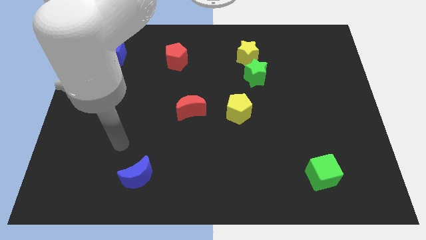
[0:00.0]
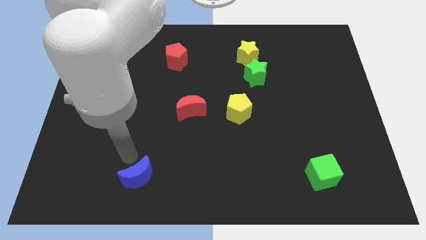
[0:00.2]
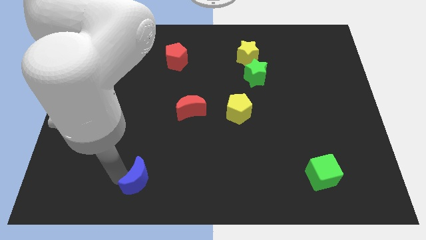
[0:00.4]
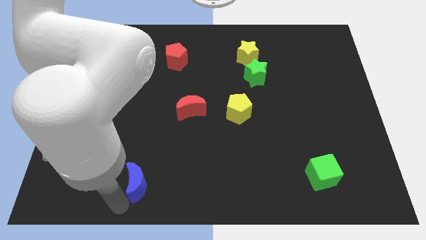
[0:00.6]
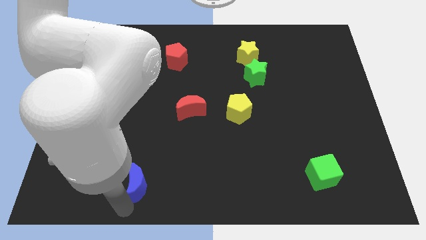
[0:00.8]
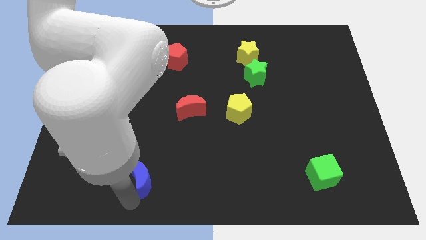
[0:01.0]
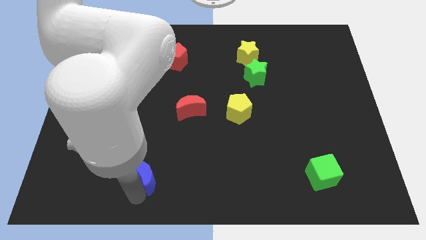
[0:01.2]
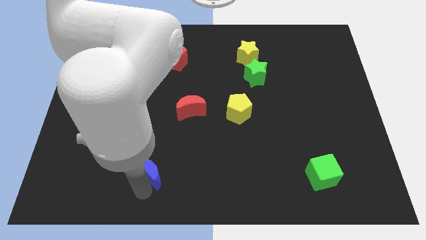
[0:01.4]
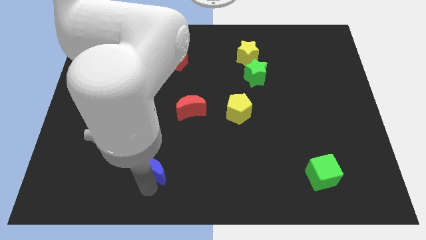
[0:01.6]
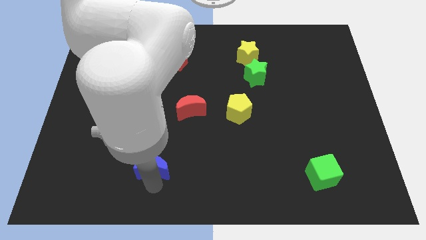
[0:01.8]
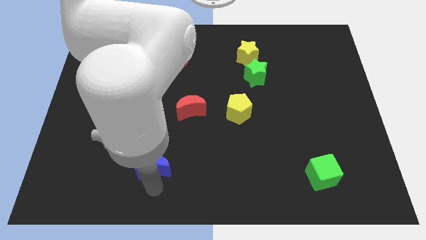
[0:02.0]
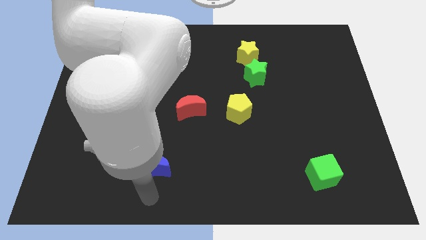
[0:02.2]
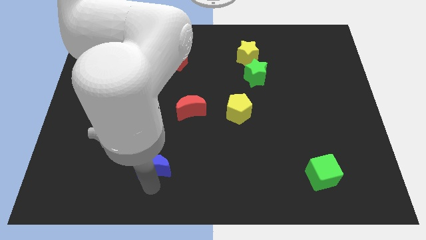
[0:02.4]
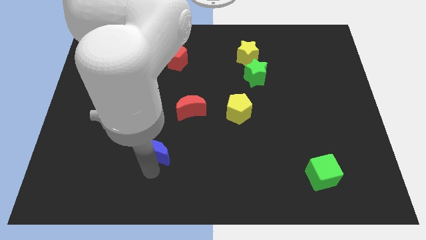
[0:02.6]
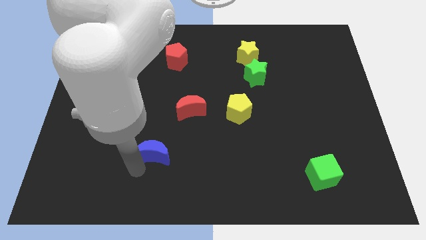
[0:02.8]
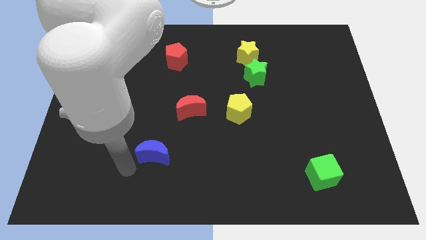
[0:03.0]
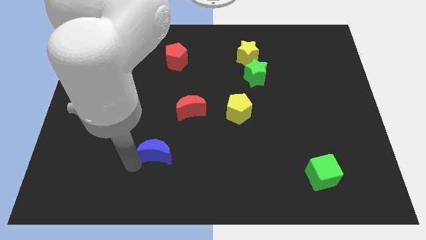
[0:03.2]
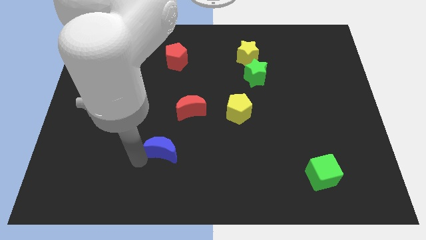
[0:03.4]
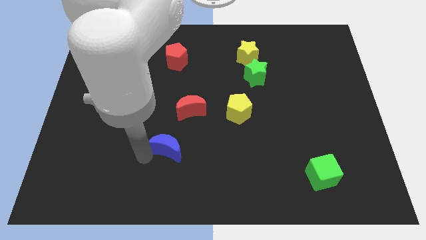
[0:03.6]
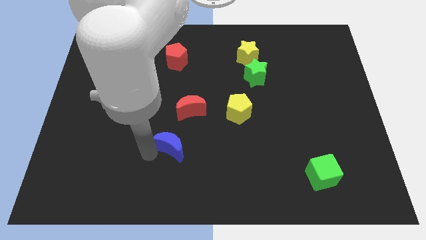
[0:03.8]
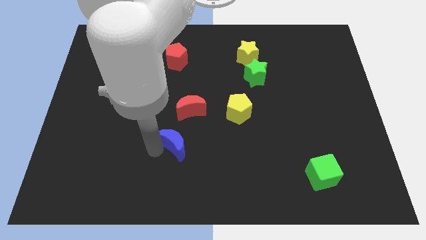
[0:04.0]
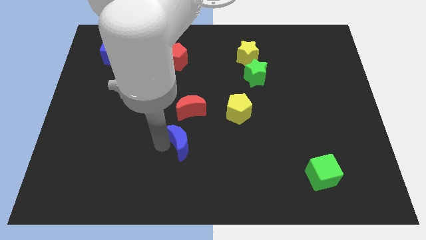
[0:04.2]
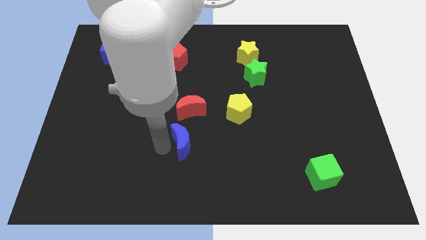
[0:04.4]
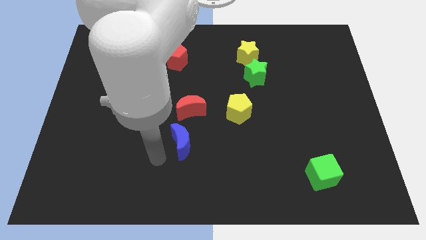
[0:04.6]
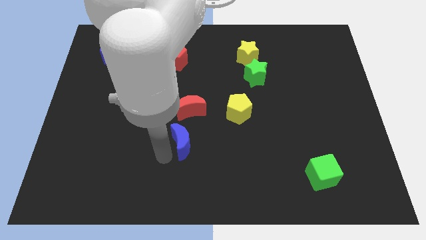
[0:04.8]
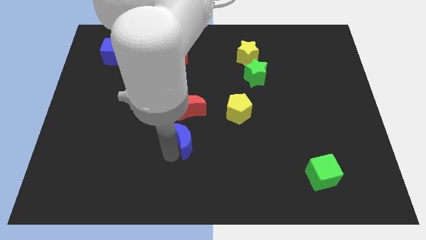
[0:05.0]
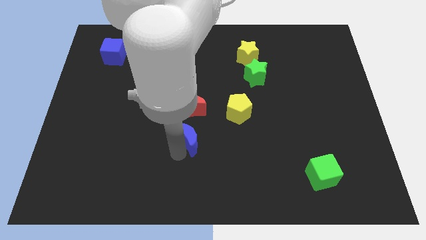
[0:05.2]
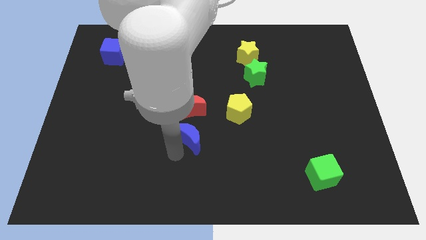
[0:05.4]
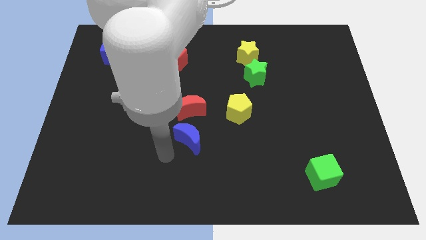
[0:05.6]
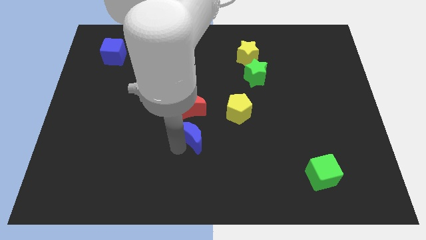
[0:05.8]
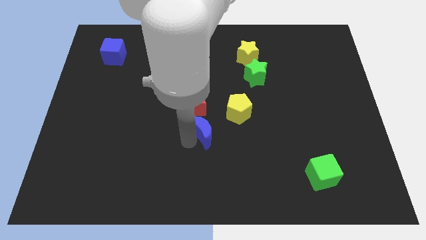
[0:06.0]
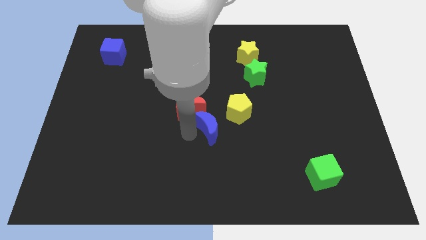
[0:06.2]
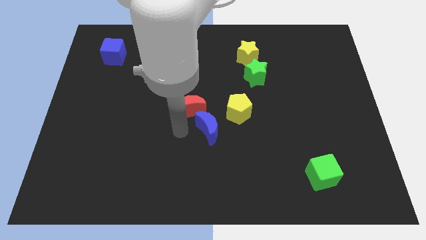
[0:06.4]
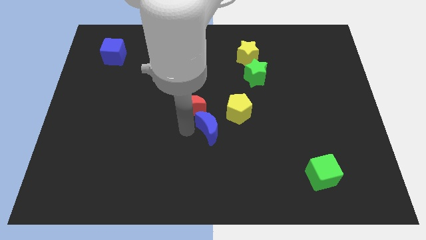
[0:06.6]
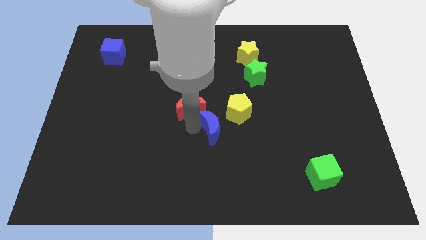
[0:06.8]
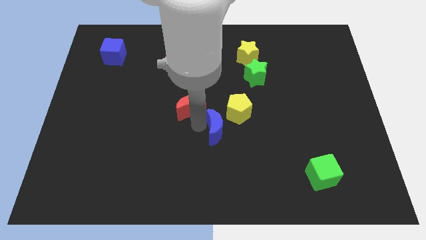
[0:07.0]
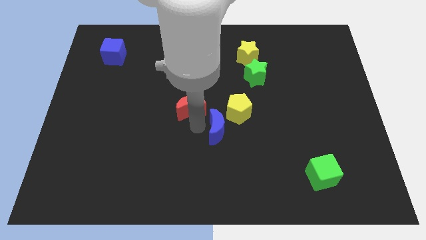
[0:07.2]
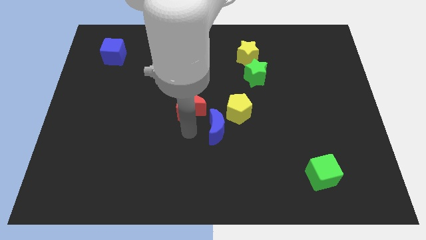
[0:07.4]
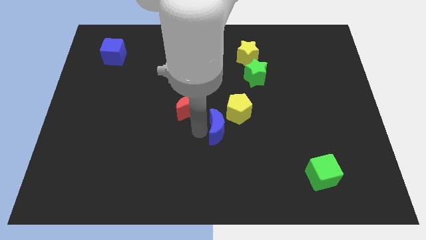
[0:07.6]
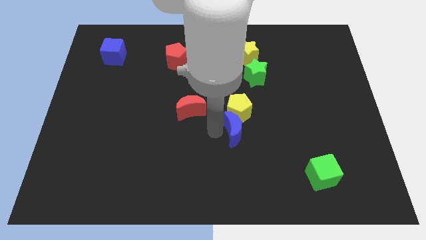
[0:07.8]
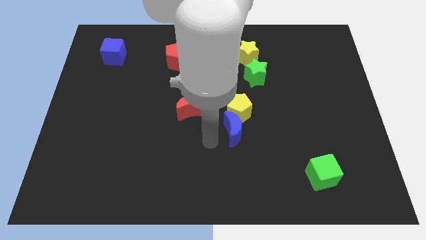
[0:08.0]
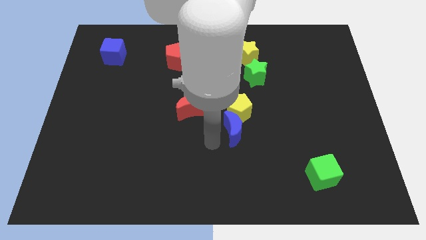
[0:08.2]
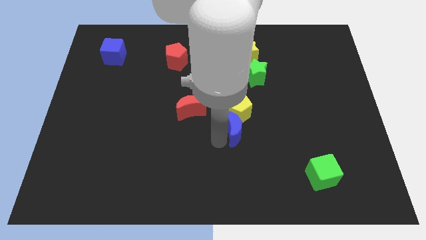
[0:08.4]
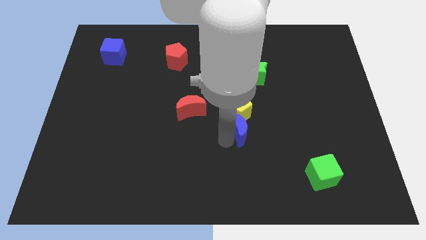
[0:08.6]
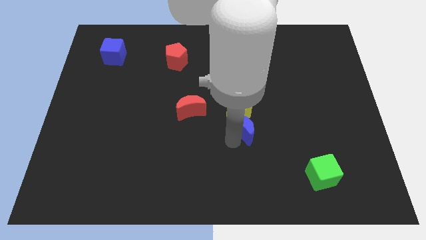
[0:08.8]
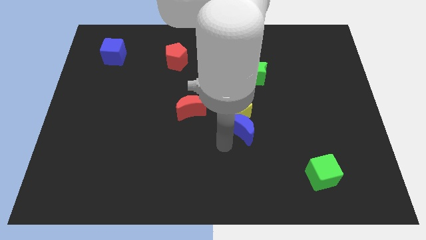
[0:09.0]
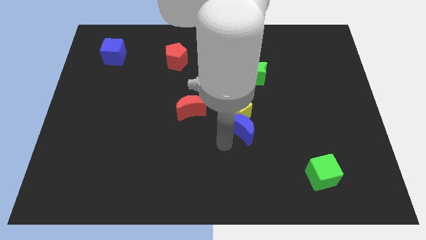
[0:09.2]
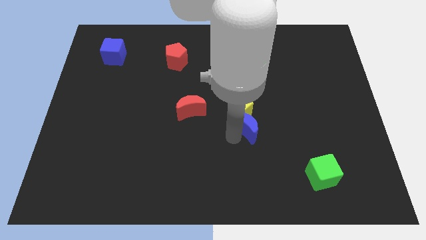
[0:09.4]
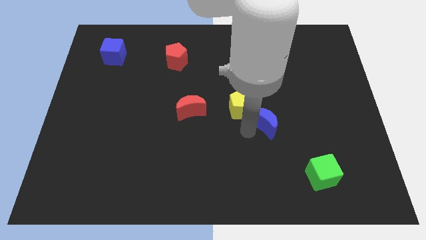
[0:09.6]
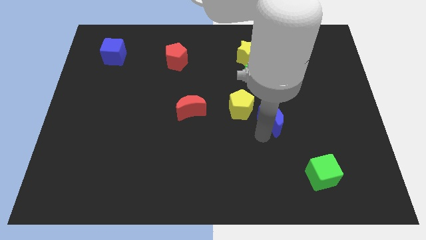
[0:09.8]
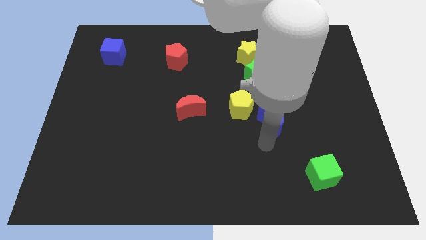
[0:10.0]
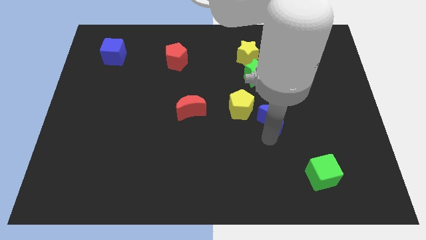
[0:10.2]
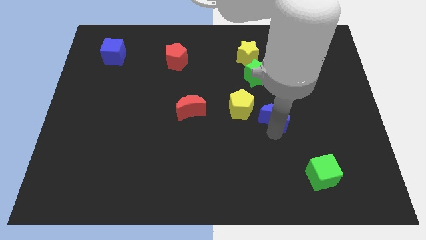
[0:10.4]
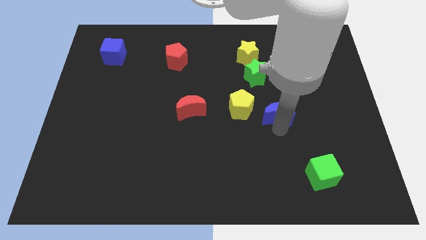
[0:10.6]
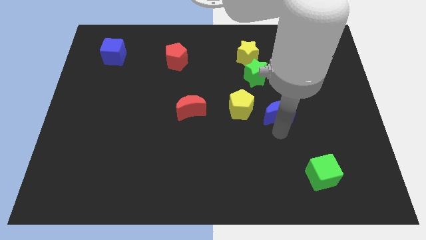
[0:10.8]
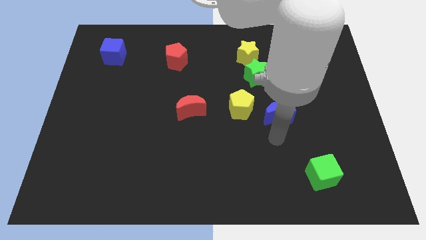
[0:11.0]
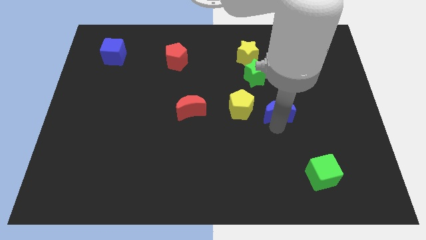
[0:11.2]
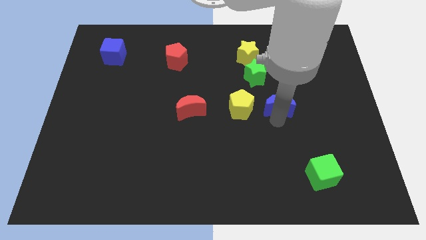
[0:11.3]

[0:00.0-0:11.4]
put the blue moon diagonally down and to the right of the green star

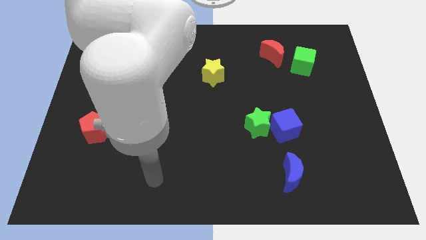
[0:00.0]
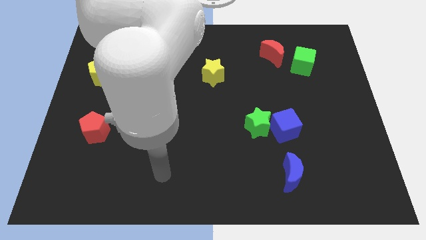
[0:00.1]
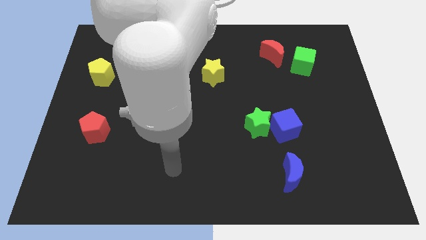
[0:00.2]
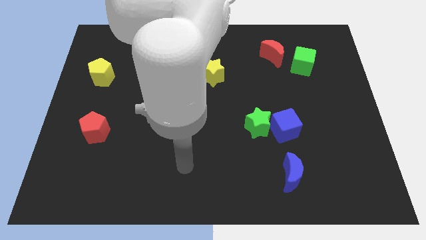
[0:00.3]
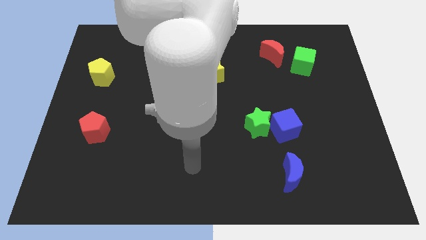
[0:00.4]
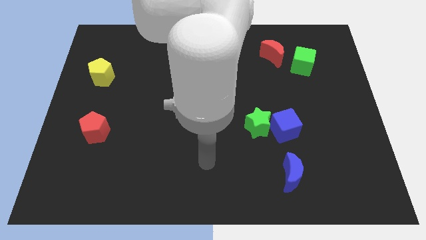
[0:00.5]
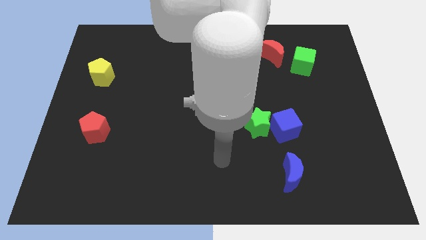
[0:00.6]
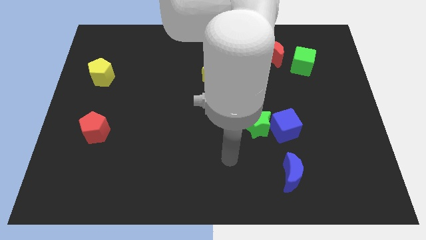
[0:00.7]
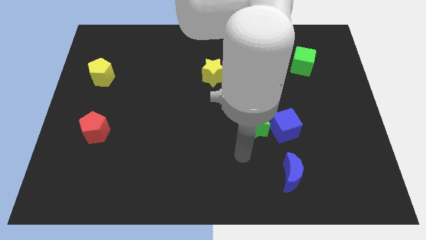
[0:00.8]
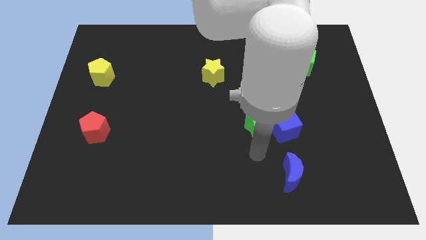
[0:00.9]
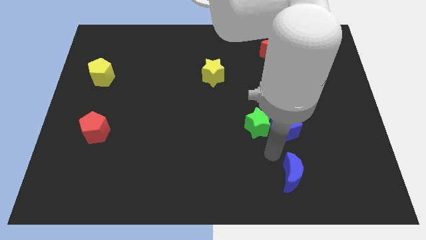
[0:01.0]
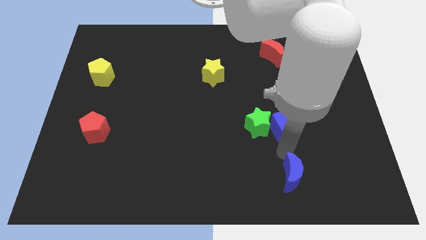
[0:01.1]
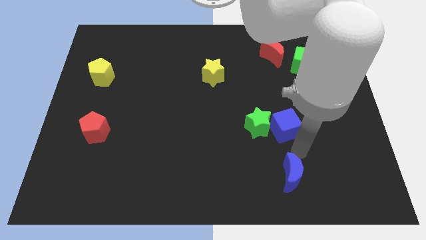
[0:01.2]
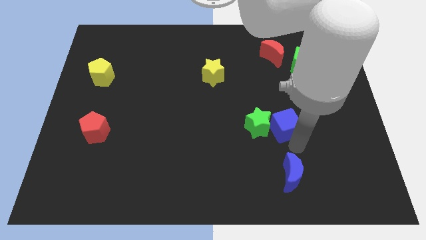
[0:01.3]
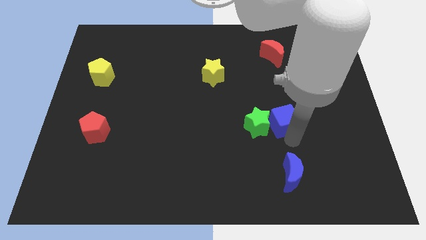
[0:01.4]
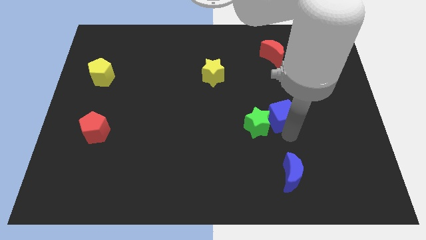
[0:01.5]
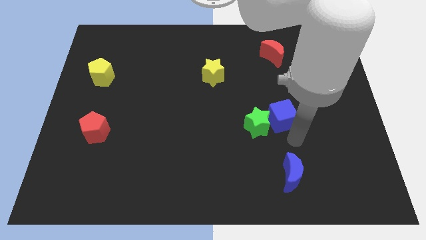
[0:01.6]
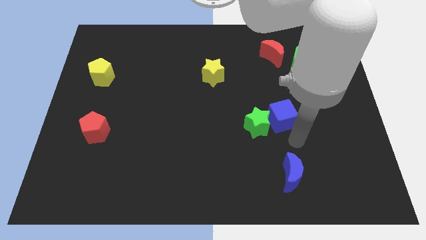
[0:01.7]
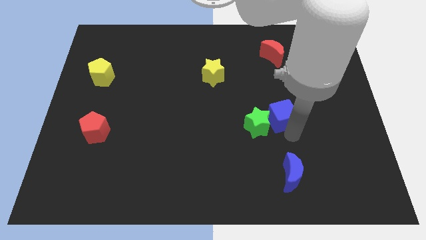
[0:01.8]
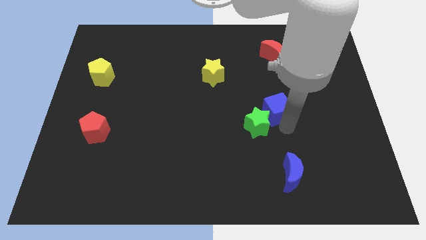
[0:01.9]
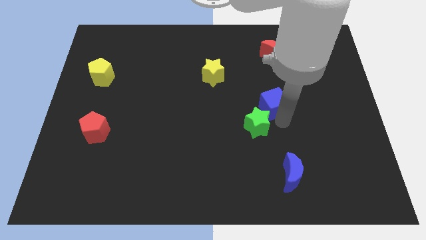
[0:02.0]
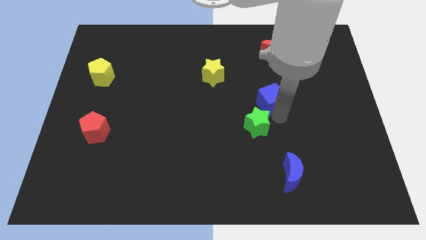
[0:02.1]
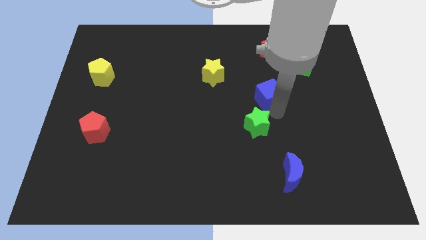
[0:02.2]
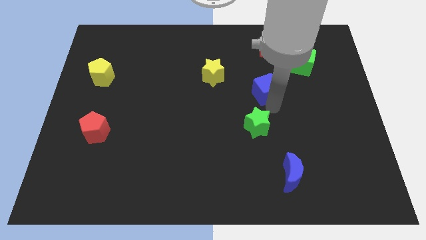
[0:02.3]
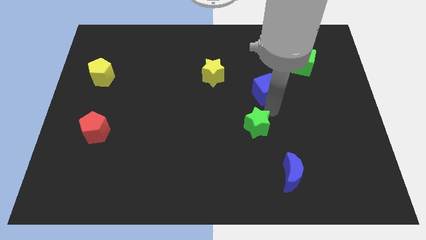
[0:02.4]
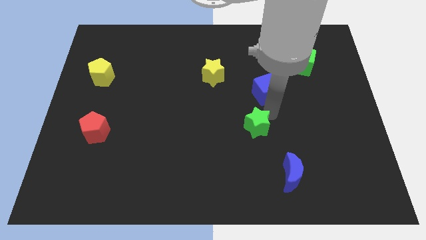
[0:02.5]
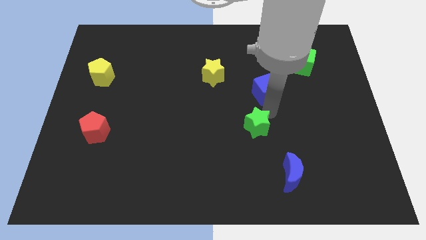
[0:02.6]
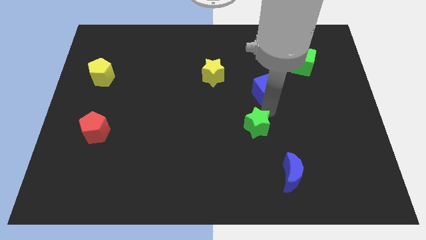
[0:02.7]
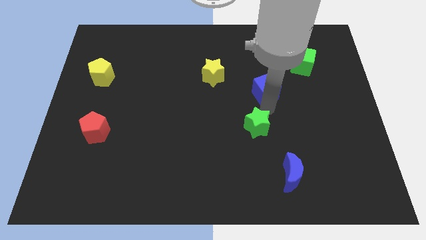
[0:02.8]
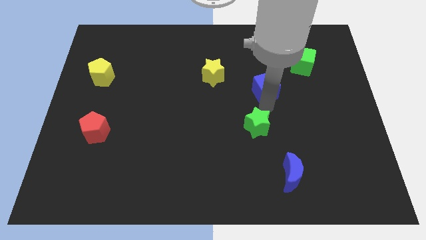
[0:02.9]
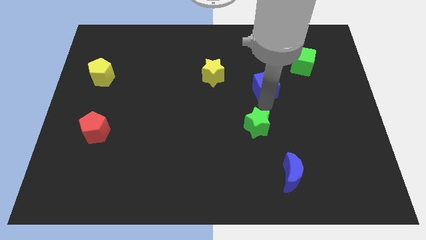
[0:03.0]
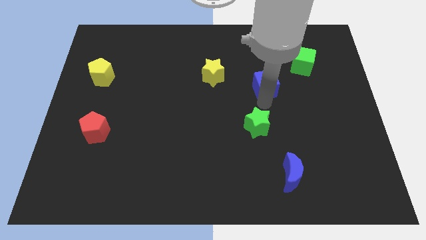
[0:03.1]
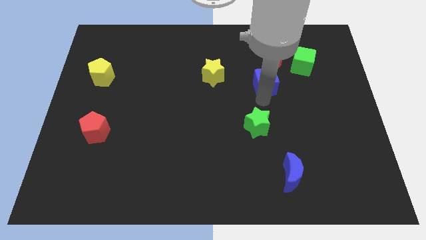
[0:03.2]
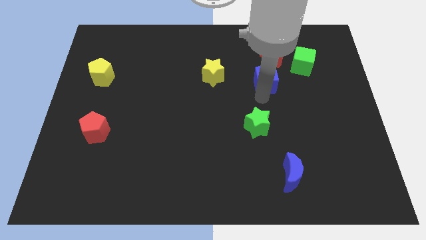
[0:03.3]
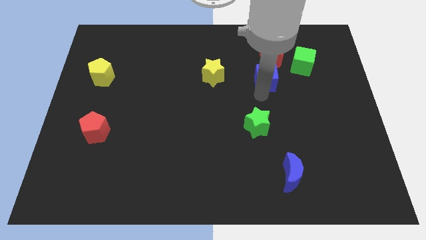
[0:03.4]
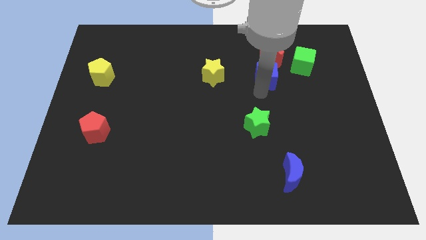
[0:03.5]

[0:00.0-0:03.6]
put the blue cube to the left side of the green cube
